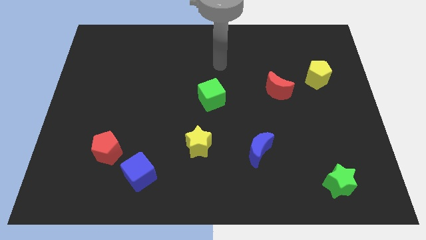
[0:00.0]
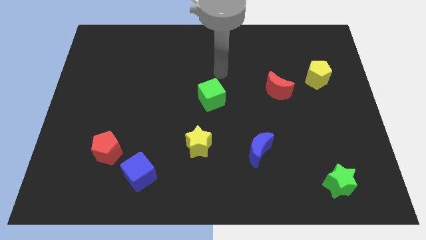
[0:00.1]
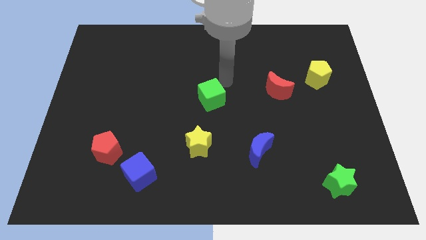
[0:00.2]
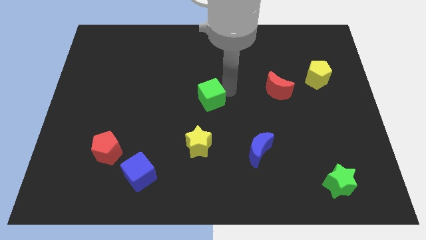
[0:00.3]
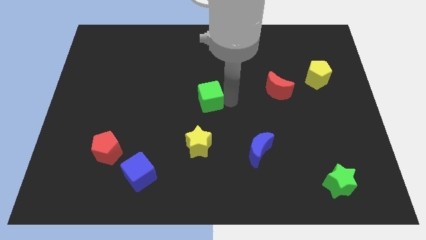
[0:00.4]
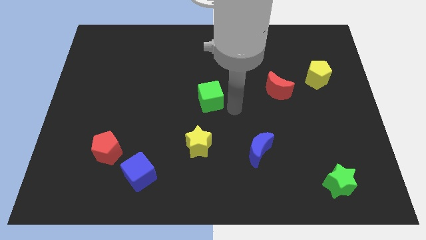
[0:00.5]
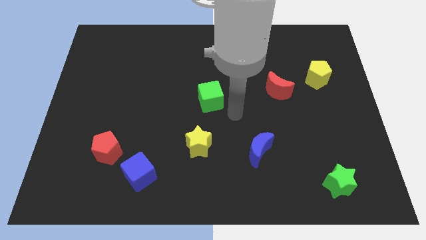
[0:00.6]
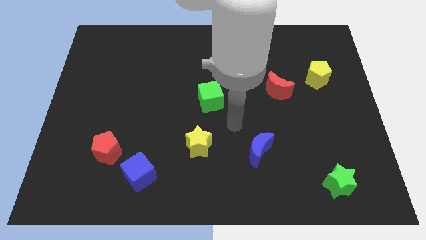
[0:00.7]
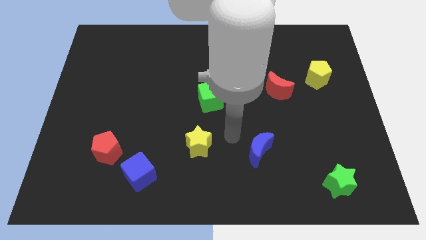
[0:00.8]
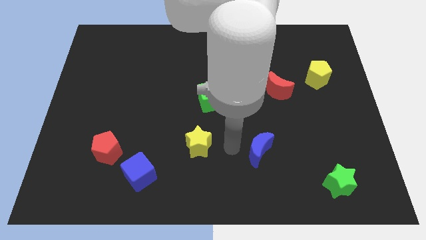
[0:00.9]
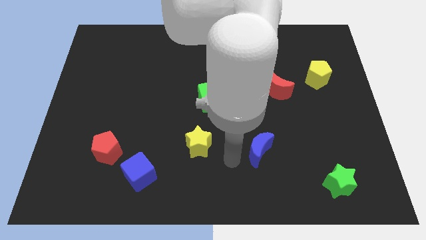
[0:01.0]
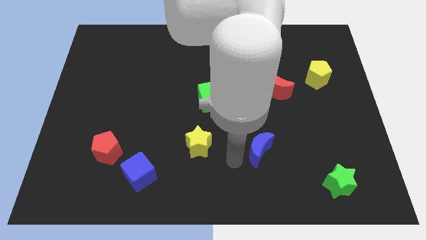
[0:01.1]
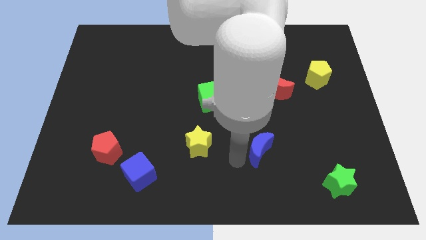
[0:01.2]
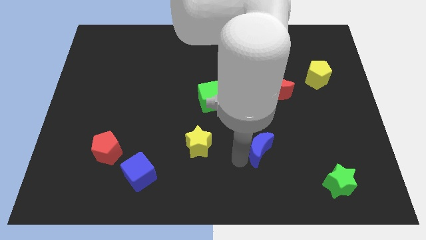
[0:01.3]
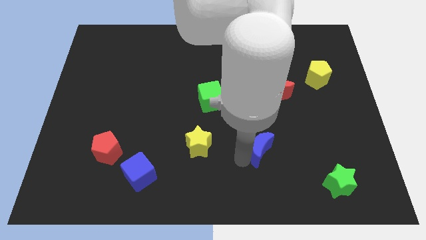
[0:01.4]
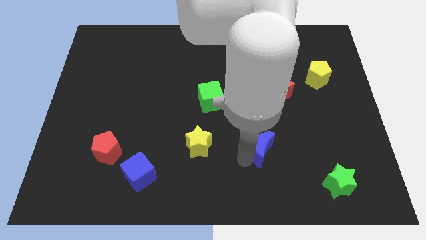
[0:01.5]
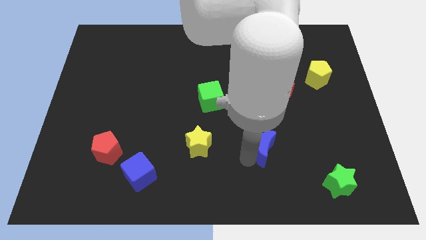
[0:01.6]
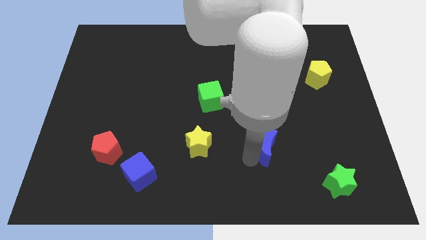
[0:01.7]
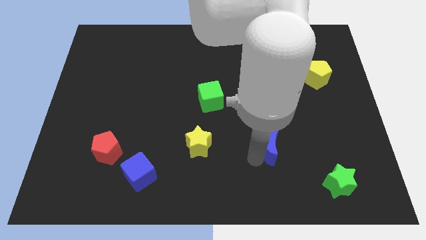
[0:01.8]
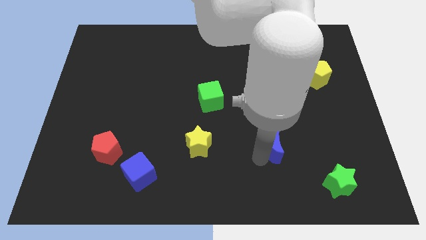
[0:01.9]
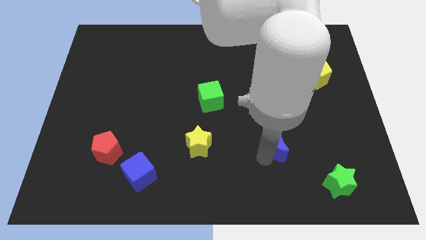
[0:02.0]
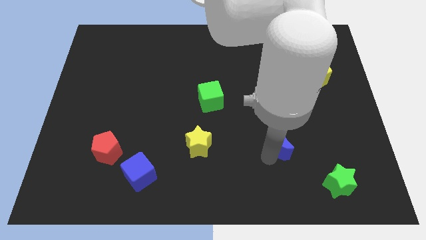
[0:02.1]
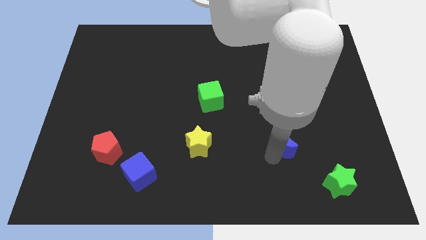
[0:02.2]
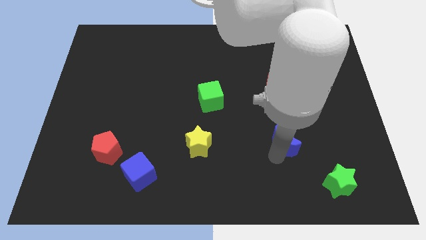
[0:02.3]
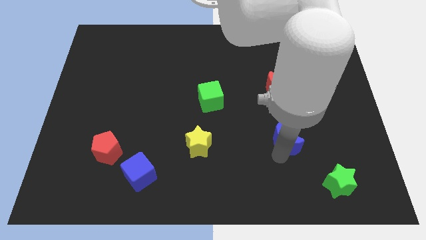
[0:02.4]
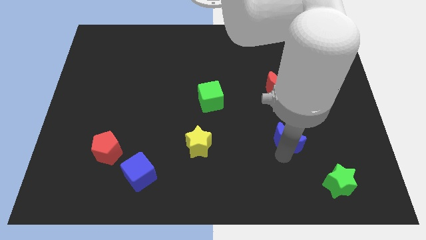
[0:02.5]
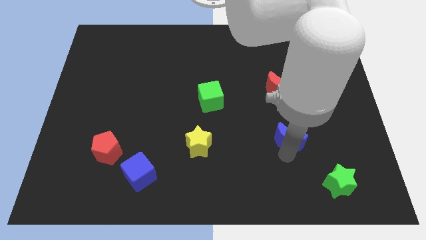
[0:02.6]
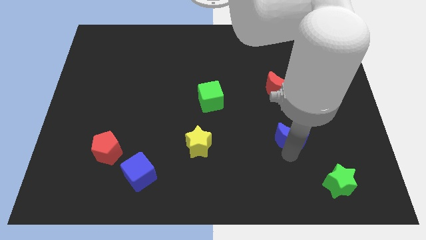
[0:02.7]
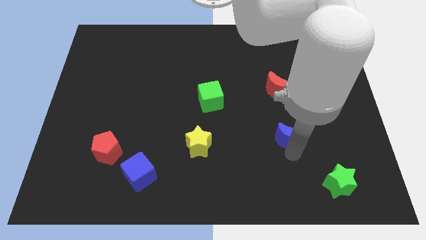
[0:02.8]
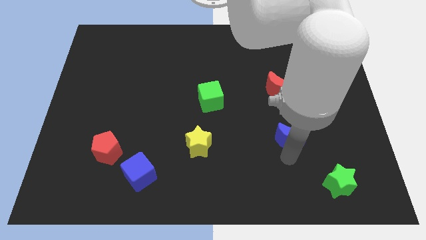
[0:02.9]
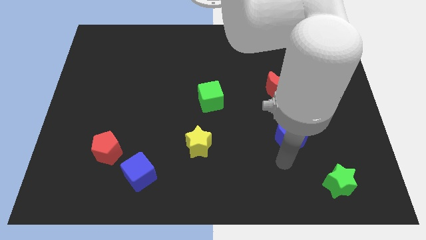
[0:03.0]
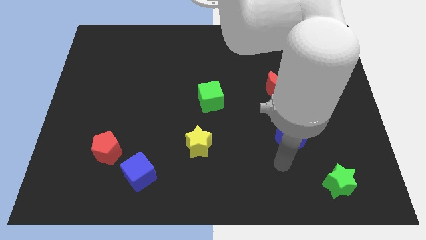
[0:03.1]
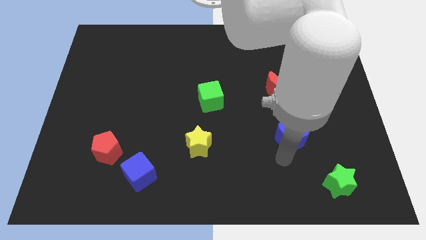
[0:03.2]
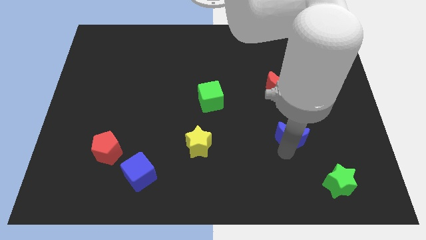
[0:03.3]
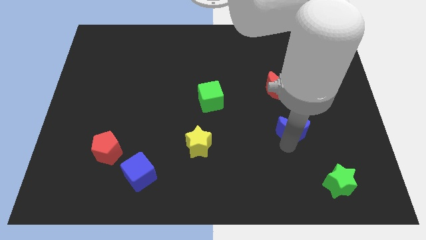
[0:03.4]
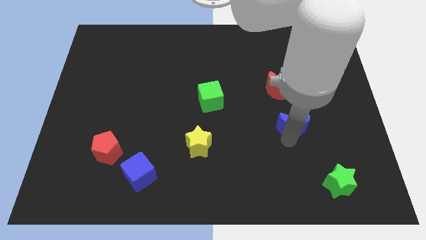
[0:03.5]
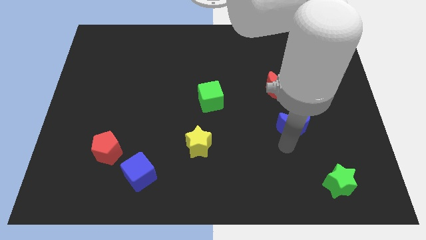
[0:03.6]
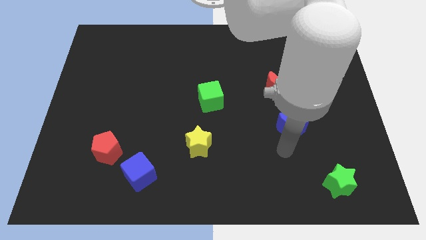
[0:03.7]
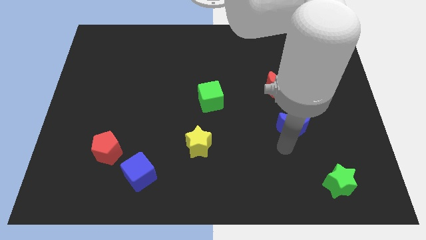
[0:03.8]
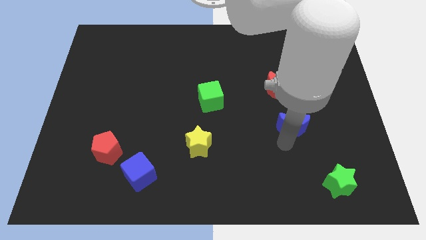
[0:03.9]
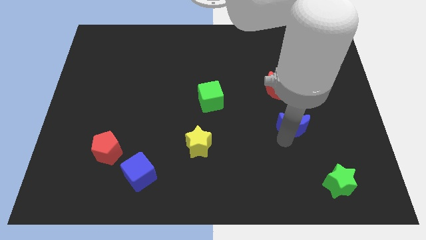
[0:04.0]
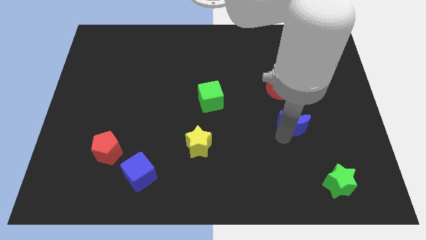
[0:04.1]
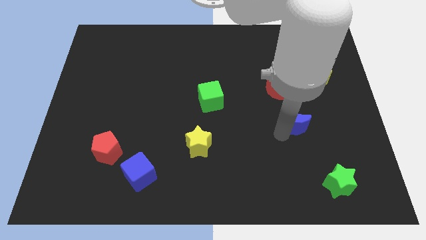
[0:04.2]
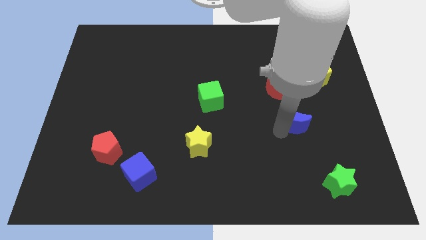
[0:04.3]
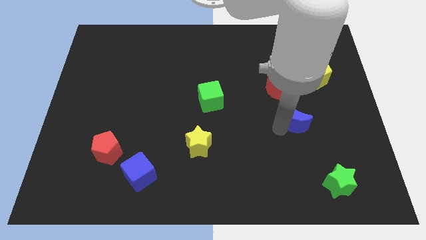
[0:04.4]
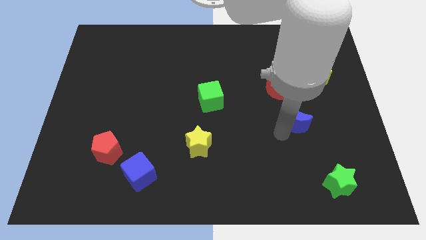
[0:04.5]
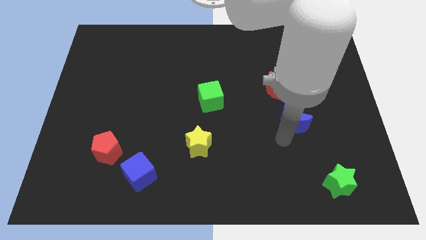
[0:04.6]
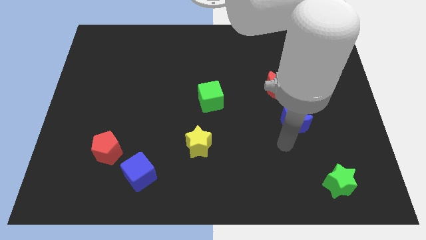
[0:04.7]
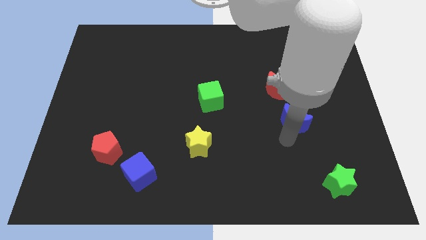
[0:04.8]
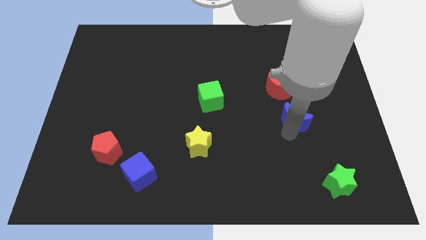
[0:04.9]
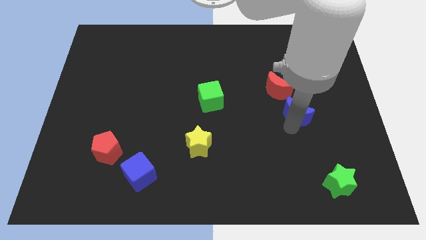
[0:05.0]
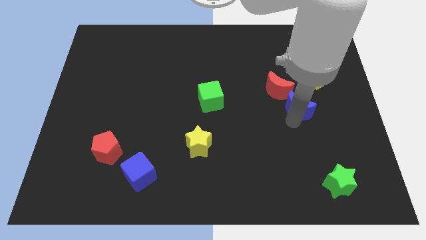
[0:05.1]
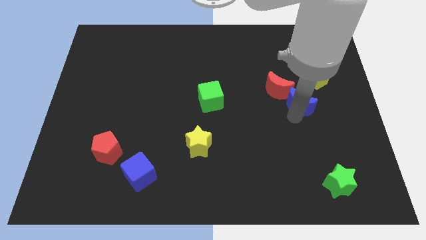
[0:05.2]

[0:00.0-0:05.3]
push the blue moon to the right side of the red moon
